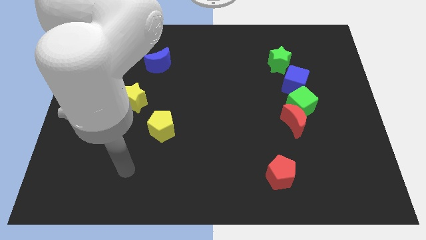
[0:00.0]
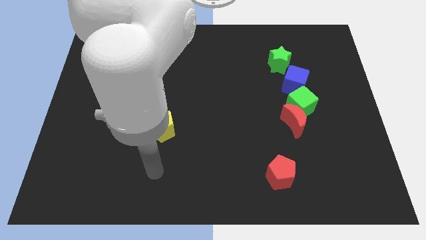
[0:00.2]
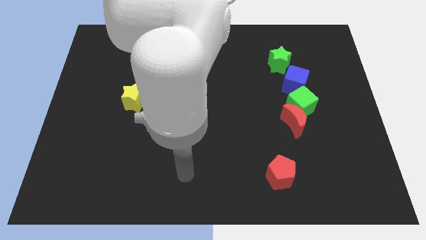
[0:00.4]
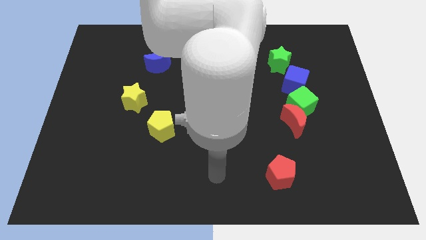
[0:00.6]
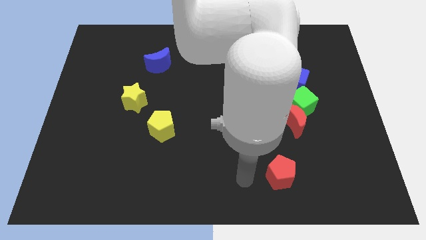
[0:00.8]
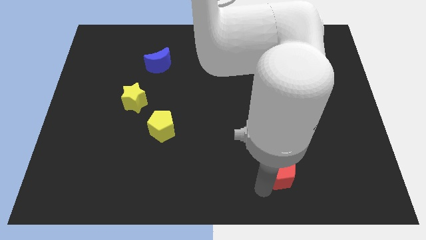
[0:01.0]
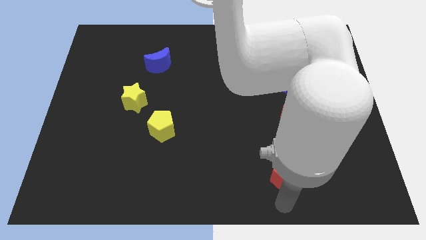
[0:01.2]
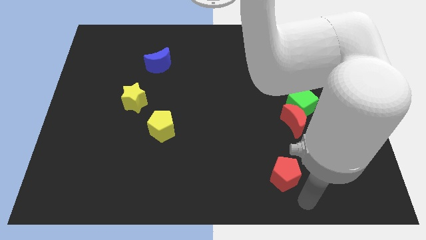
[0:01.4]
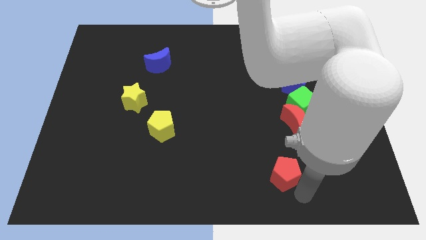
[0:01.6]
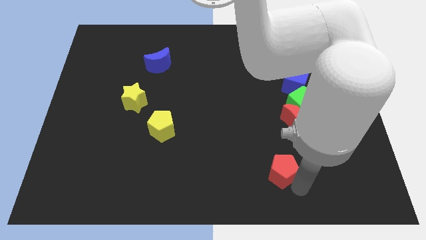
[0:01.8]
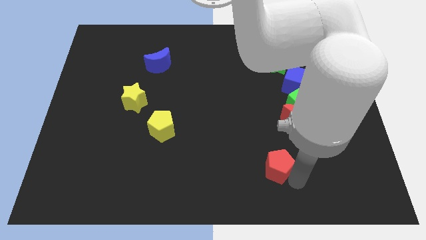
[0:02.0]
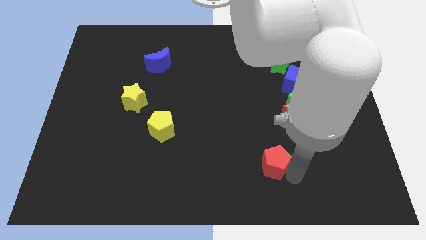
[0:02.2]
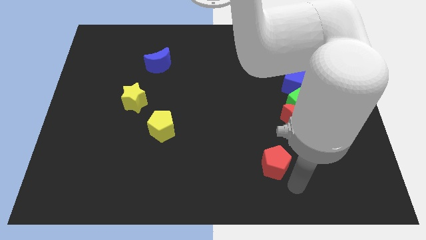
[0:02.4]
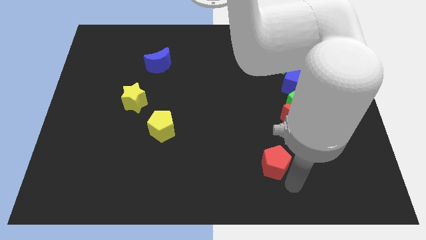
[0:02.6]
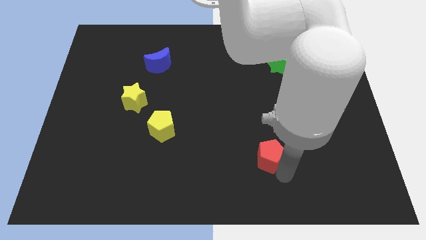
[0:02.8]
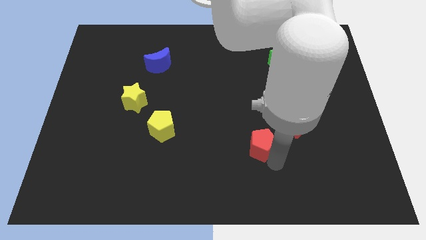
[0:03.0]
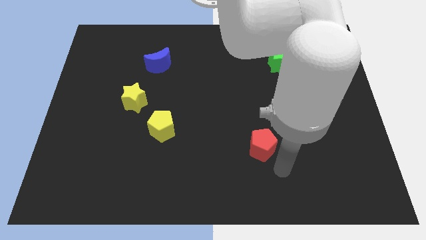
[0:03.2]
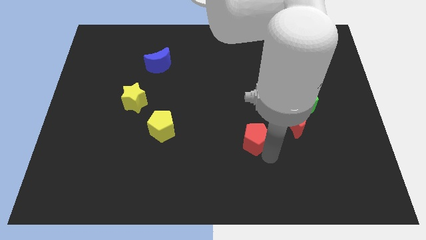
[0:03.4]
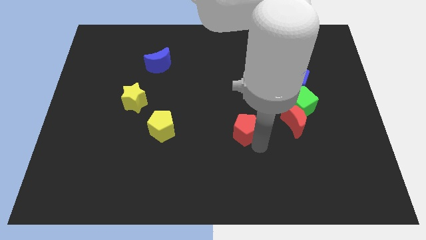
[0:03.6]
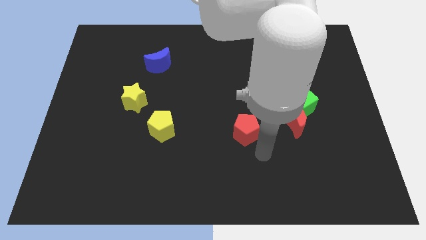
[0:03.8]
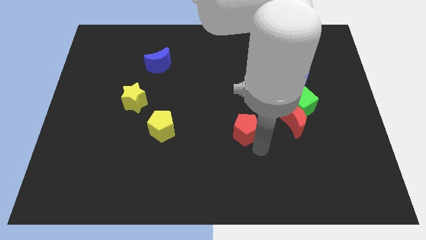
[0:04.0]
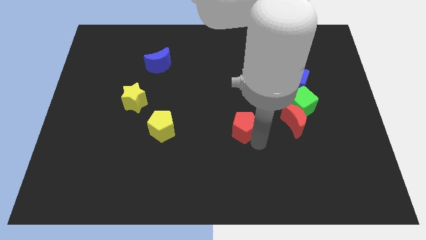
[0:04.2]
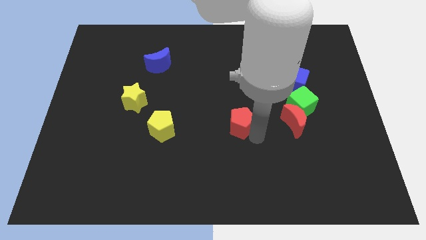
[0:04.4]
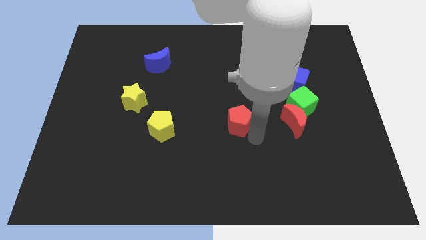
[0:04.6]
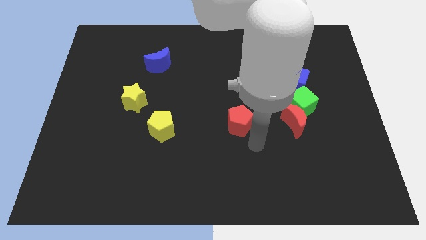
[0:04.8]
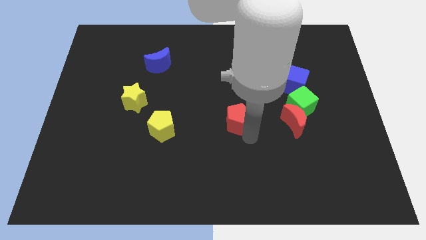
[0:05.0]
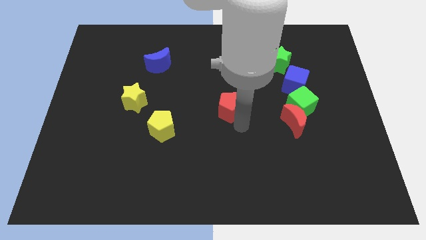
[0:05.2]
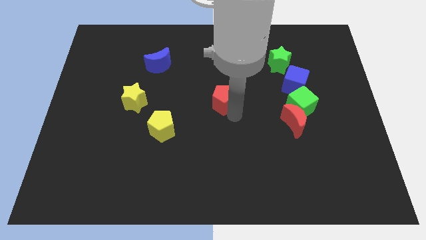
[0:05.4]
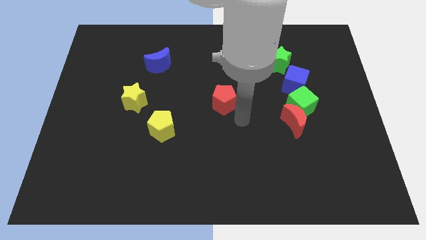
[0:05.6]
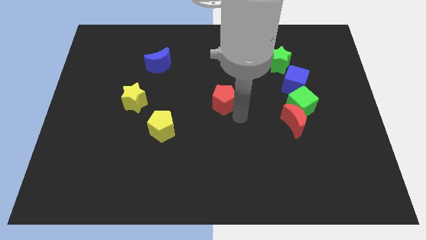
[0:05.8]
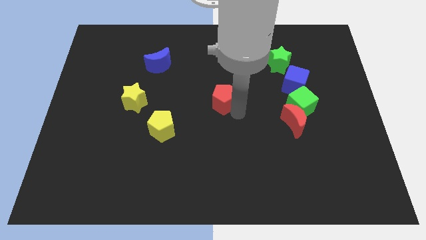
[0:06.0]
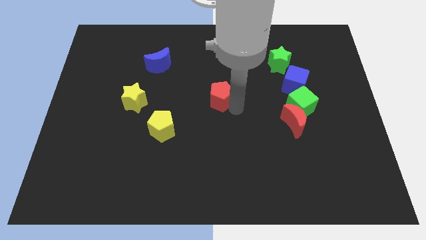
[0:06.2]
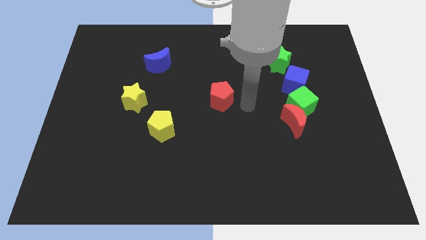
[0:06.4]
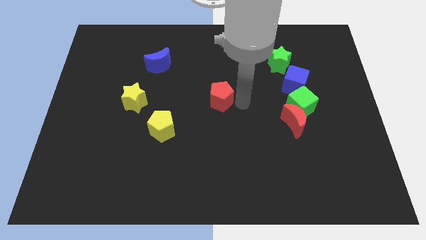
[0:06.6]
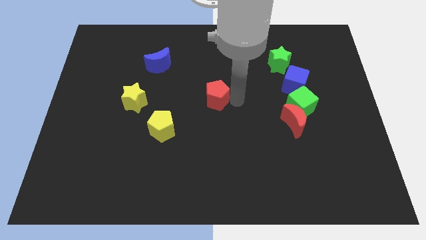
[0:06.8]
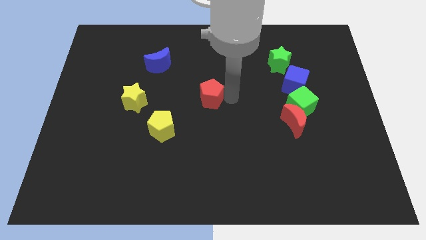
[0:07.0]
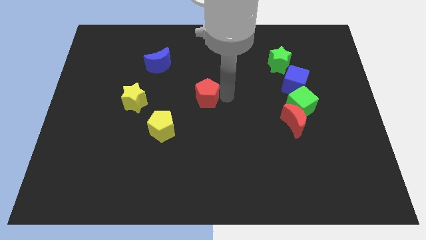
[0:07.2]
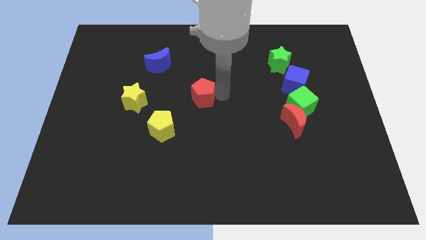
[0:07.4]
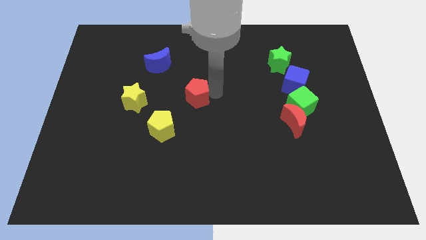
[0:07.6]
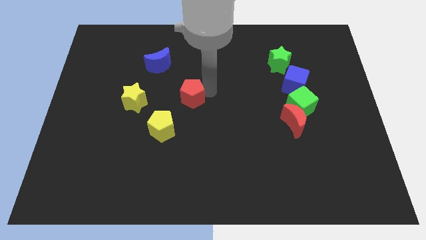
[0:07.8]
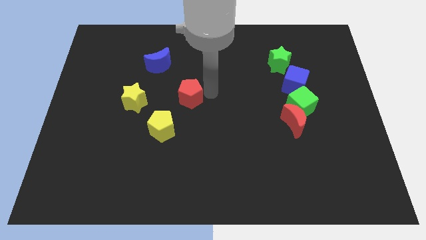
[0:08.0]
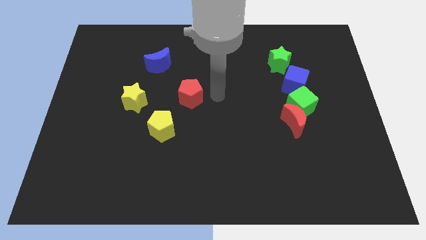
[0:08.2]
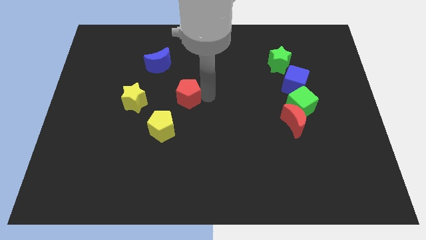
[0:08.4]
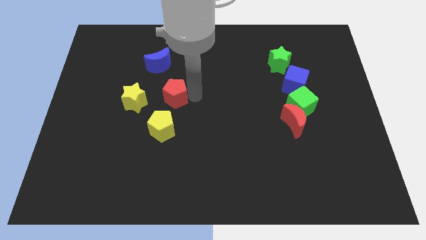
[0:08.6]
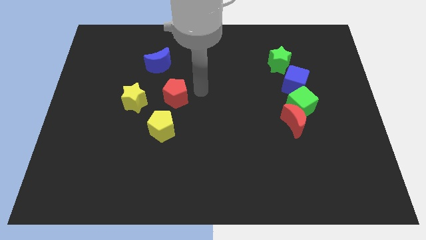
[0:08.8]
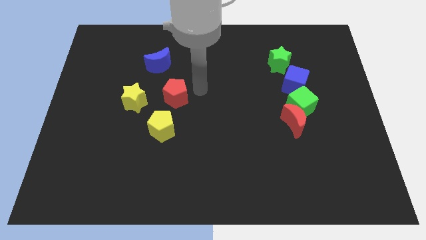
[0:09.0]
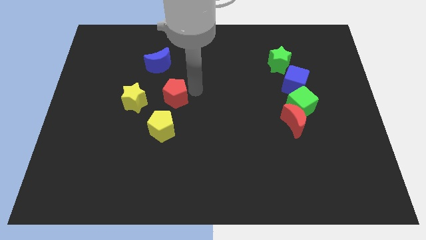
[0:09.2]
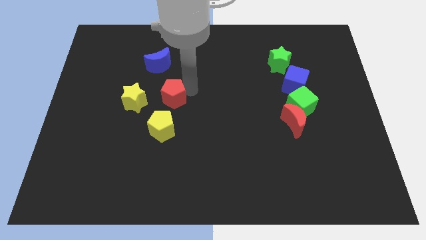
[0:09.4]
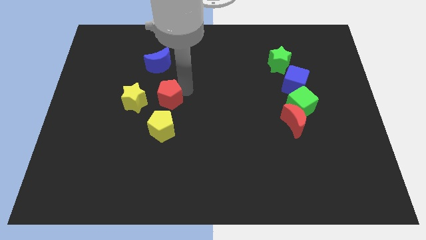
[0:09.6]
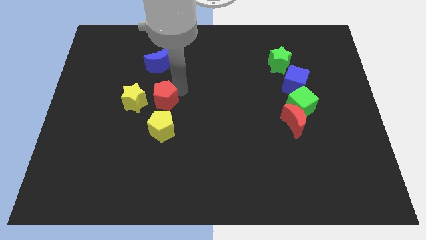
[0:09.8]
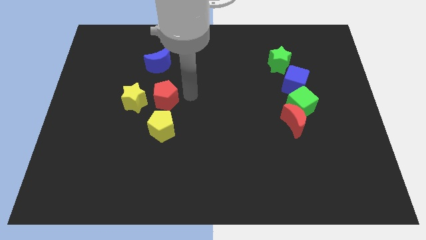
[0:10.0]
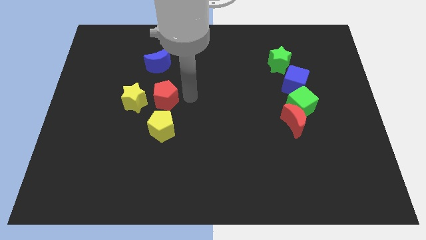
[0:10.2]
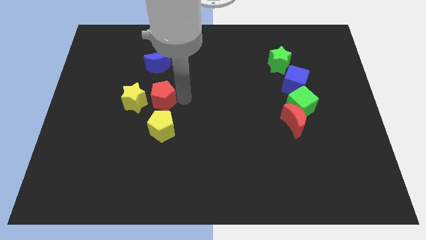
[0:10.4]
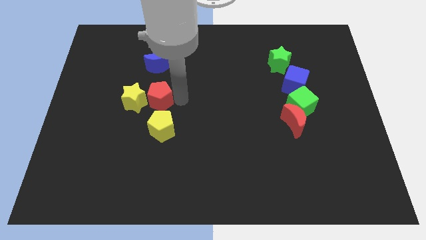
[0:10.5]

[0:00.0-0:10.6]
push the red pentagon next to the yellow star

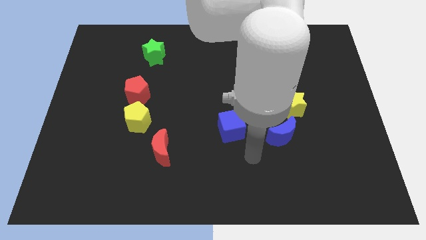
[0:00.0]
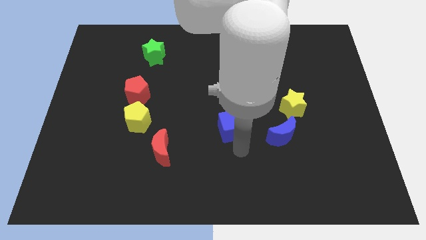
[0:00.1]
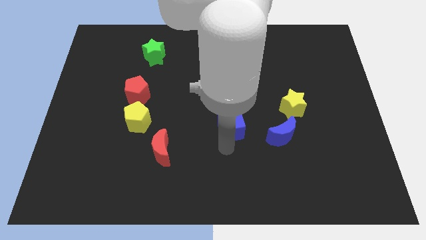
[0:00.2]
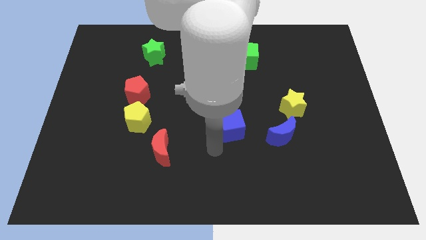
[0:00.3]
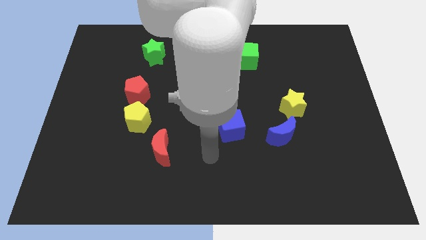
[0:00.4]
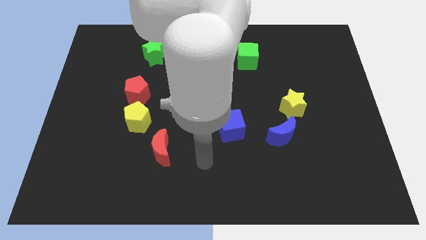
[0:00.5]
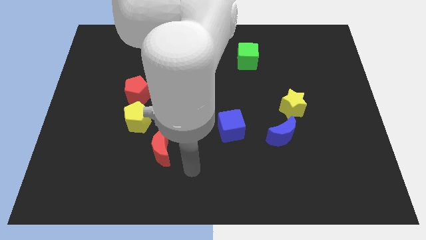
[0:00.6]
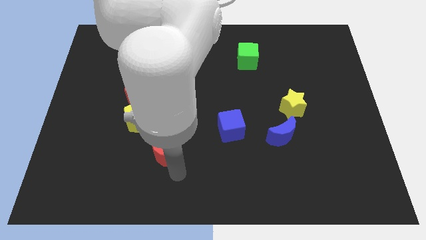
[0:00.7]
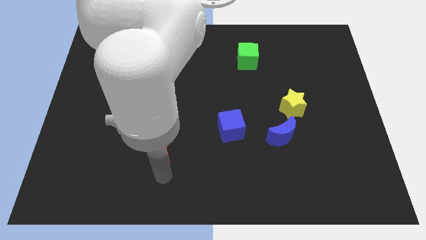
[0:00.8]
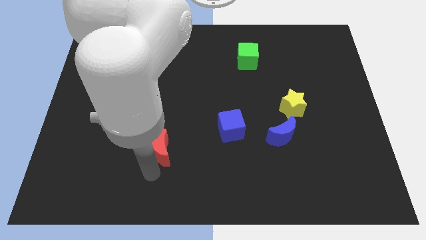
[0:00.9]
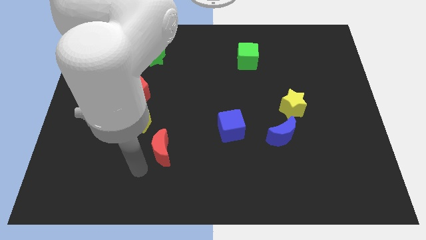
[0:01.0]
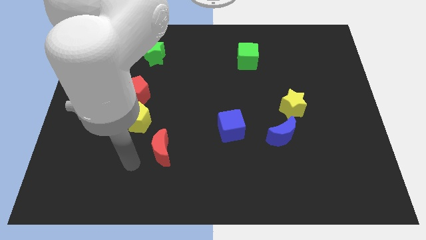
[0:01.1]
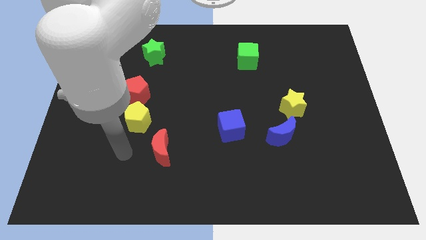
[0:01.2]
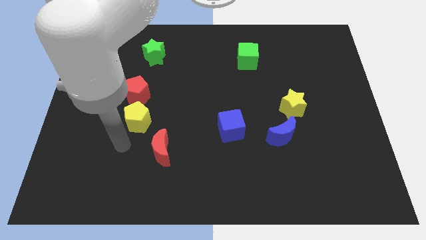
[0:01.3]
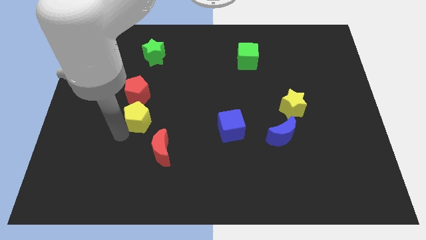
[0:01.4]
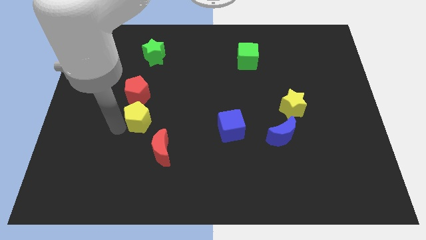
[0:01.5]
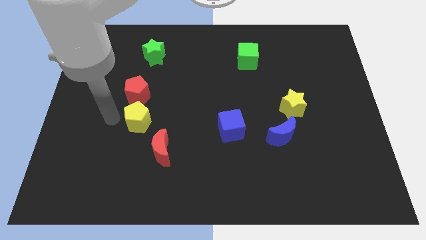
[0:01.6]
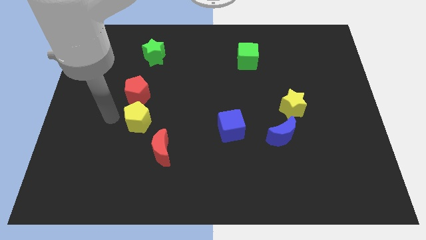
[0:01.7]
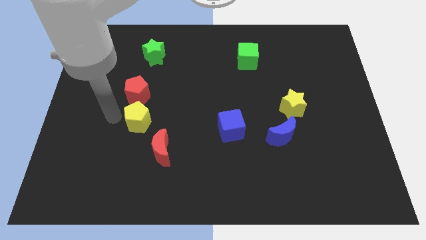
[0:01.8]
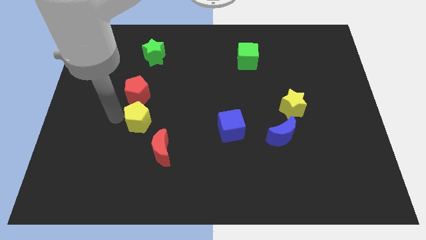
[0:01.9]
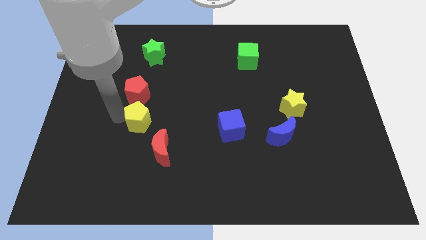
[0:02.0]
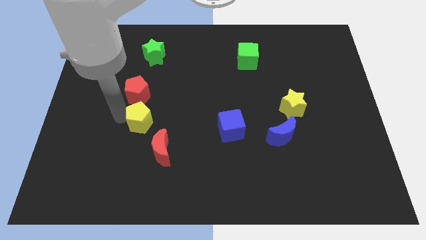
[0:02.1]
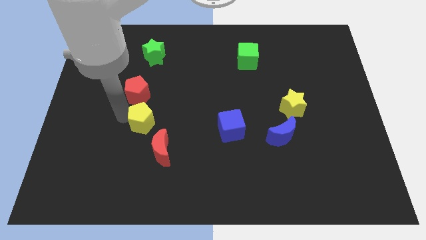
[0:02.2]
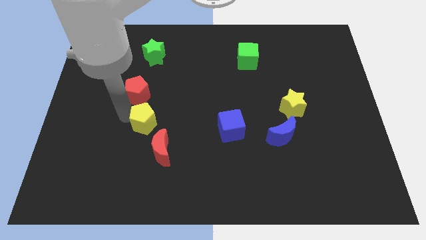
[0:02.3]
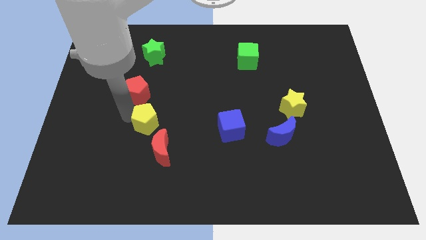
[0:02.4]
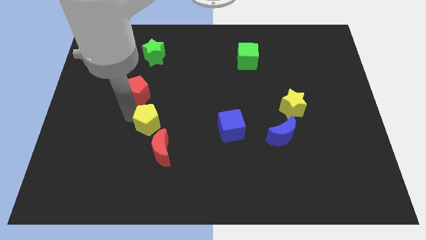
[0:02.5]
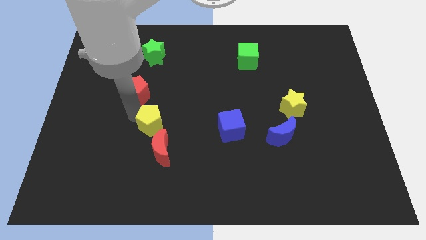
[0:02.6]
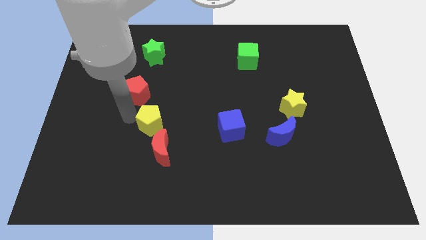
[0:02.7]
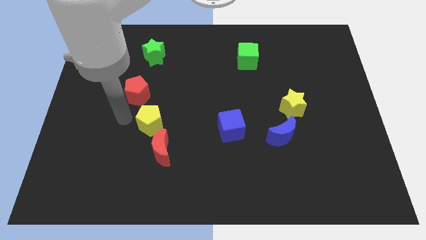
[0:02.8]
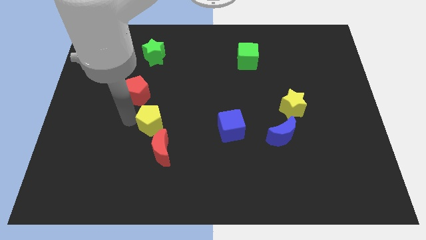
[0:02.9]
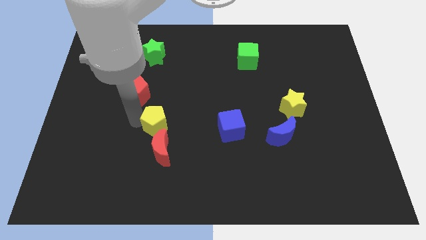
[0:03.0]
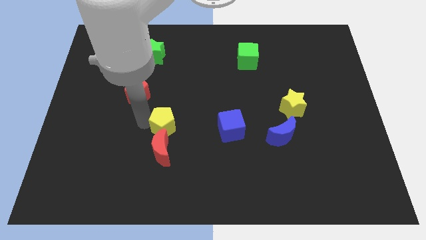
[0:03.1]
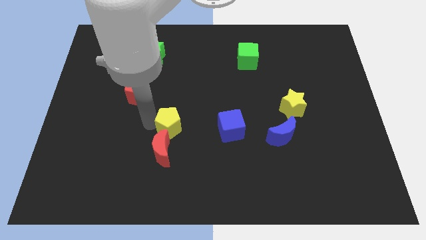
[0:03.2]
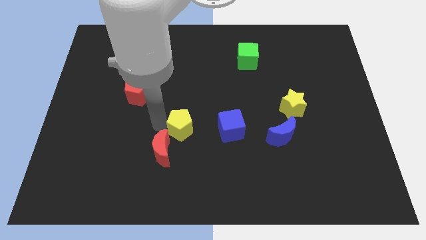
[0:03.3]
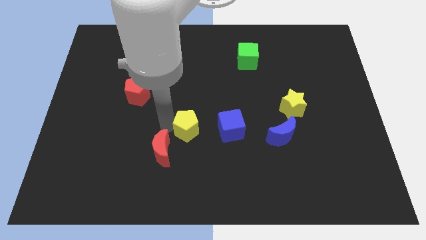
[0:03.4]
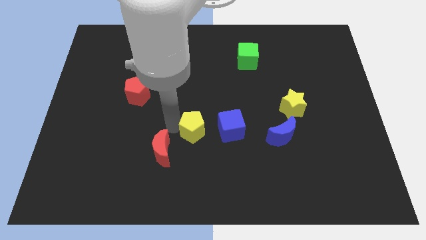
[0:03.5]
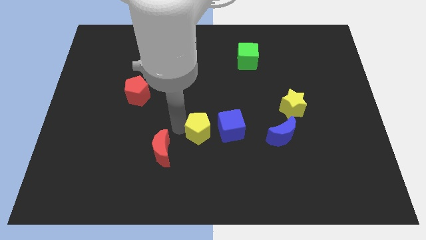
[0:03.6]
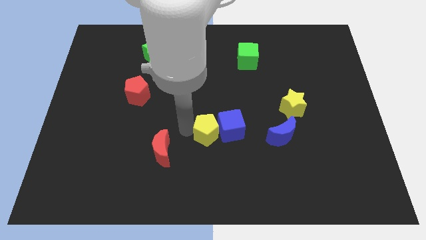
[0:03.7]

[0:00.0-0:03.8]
move the yellow pentagon next to the blue cube
